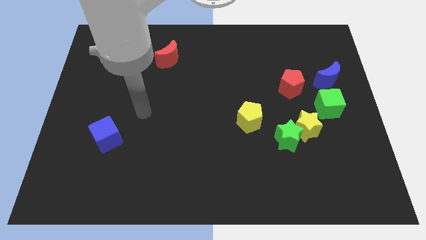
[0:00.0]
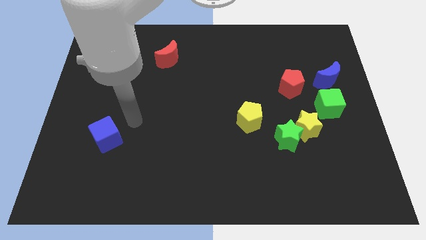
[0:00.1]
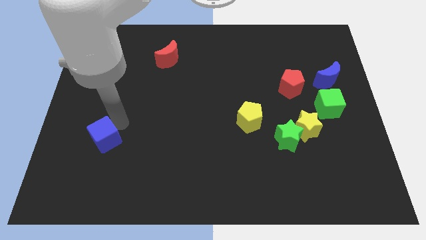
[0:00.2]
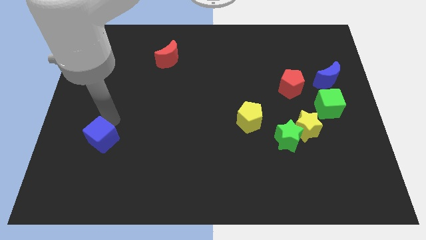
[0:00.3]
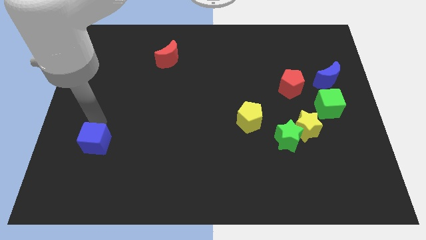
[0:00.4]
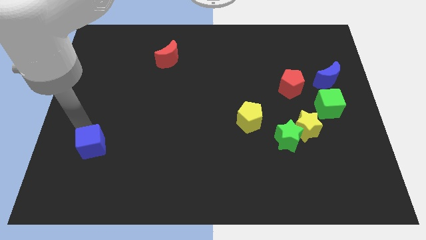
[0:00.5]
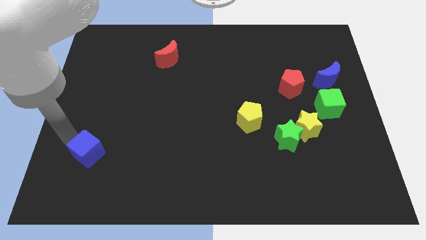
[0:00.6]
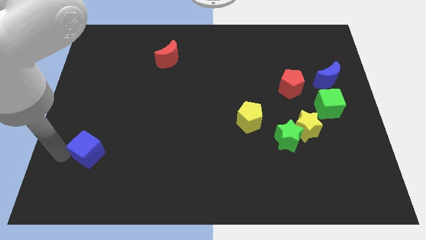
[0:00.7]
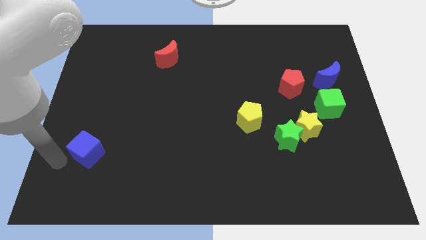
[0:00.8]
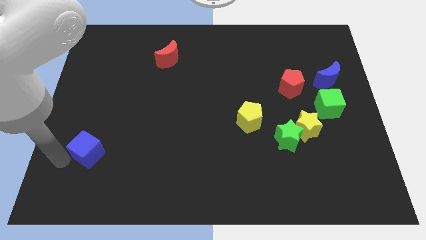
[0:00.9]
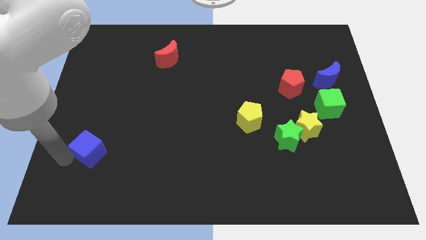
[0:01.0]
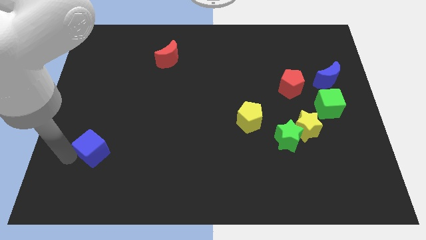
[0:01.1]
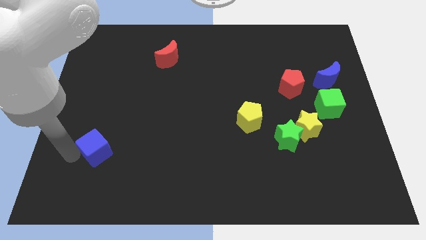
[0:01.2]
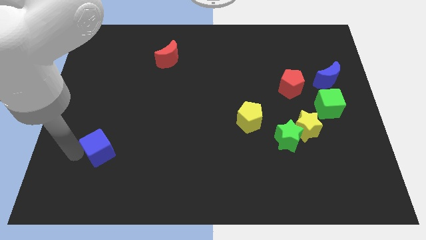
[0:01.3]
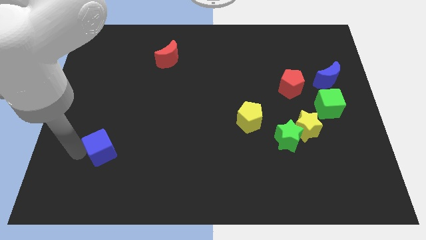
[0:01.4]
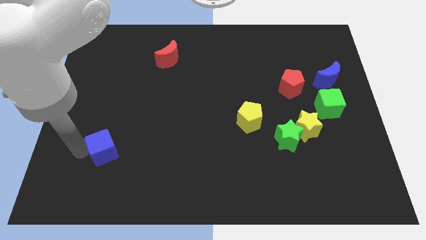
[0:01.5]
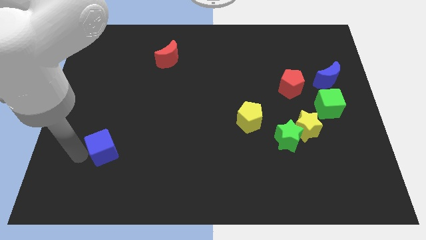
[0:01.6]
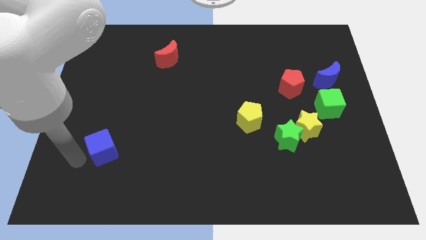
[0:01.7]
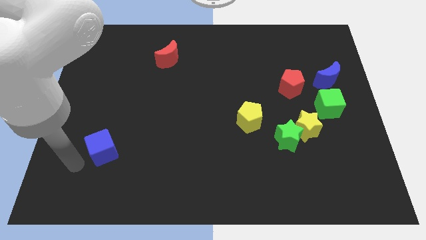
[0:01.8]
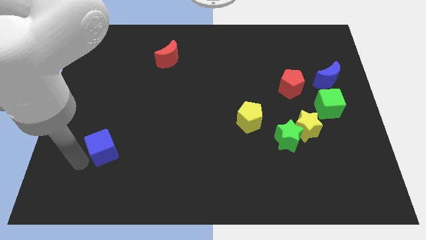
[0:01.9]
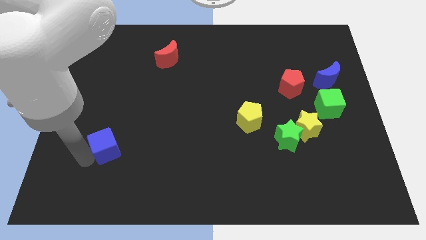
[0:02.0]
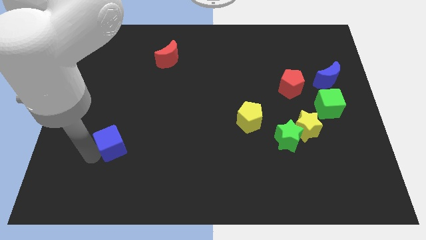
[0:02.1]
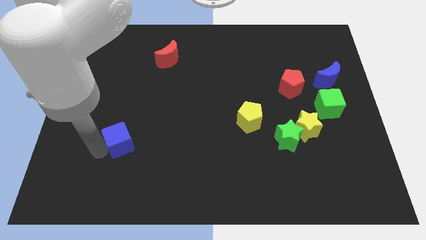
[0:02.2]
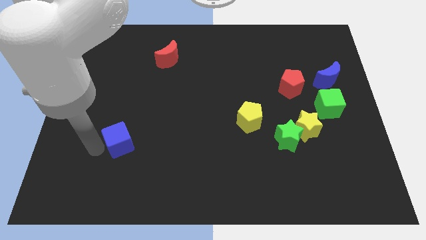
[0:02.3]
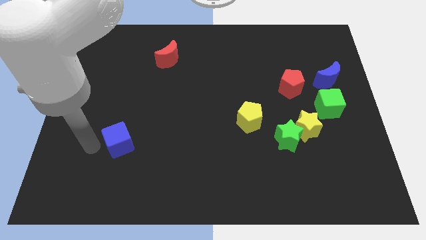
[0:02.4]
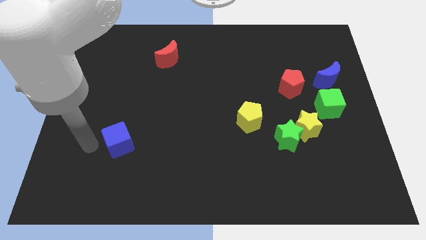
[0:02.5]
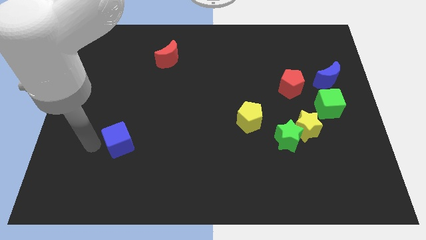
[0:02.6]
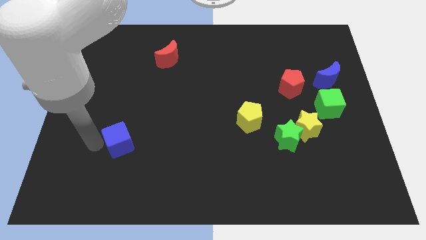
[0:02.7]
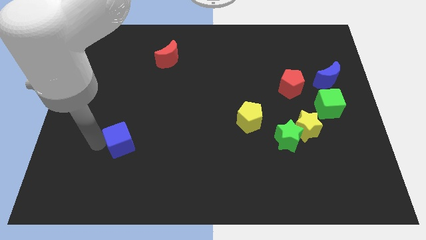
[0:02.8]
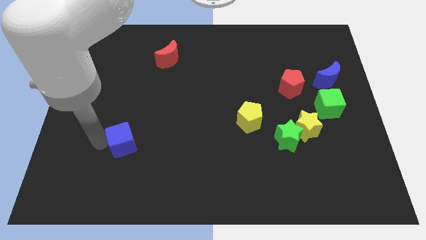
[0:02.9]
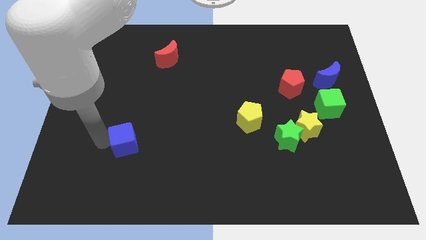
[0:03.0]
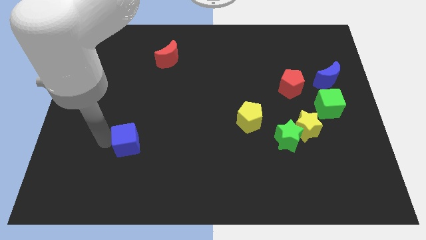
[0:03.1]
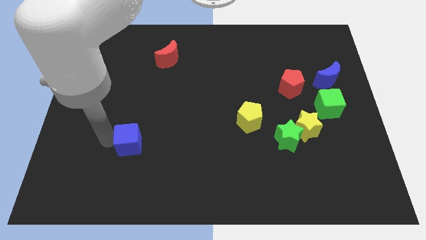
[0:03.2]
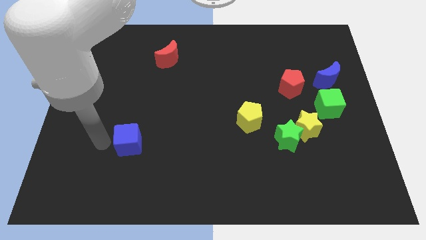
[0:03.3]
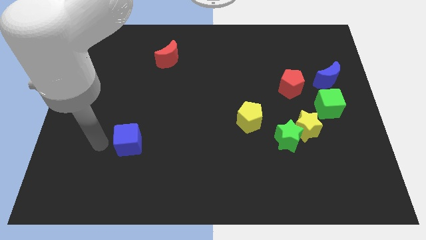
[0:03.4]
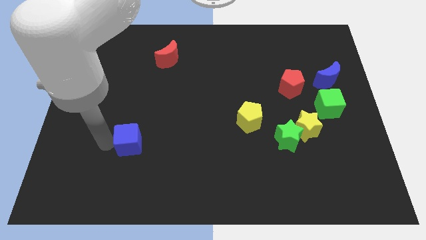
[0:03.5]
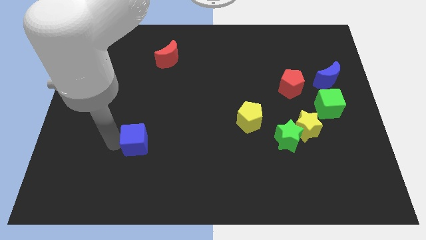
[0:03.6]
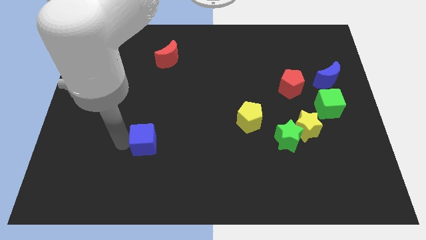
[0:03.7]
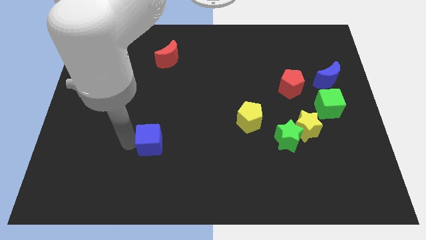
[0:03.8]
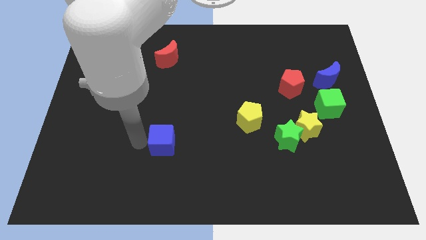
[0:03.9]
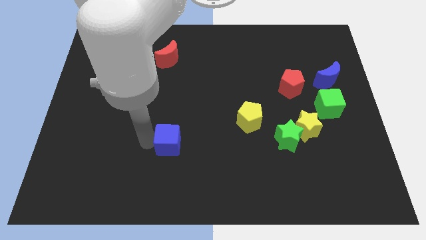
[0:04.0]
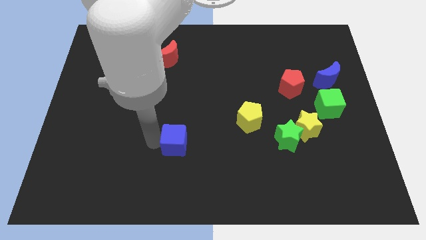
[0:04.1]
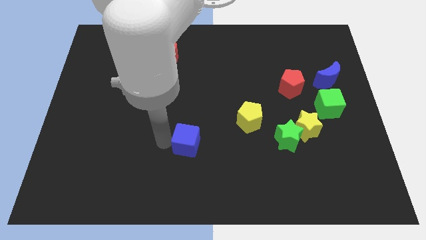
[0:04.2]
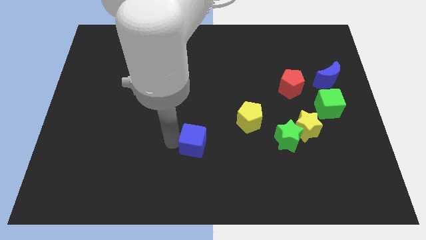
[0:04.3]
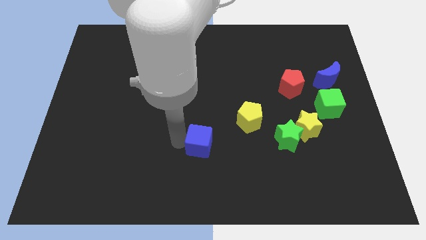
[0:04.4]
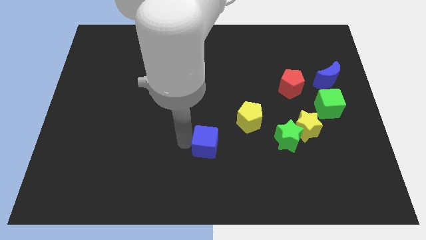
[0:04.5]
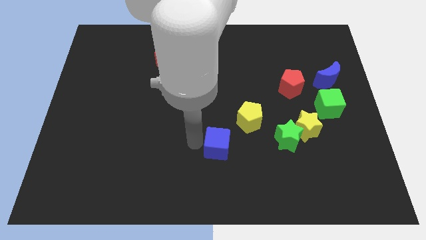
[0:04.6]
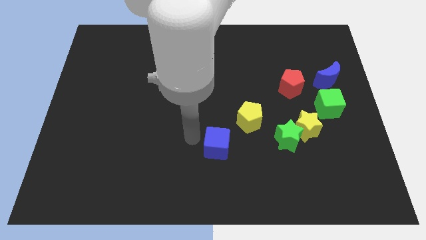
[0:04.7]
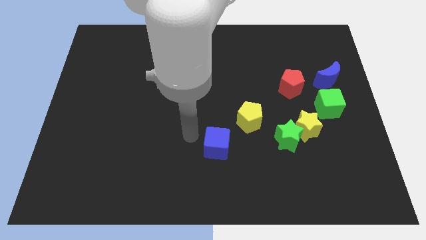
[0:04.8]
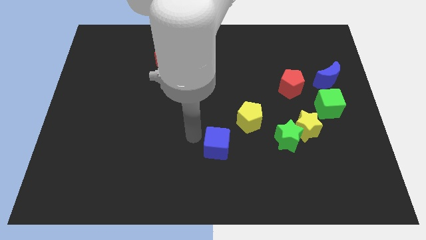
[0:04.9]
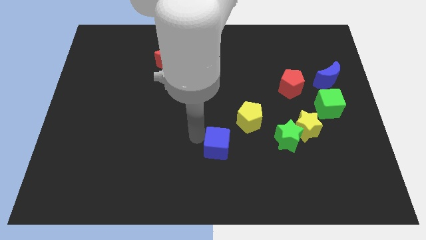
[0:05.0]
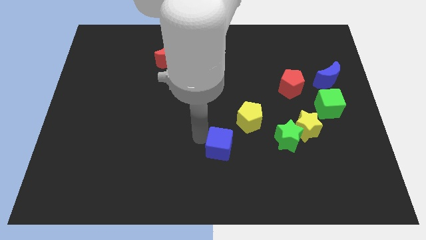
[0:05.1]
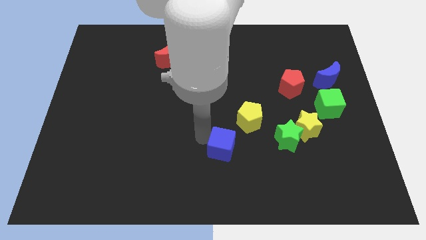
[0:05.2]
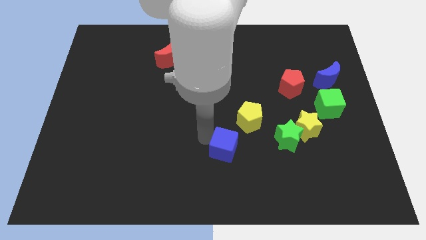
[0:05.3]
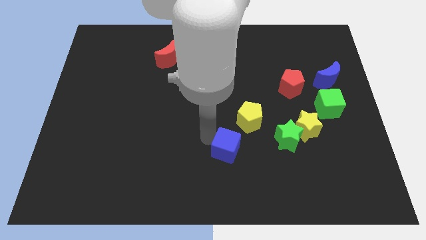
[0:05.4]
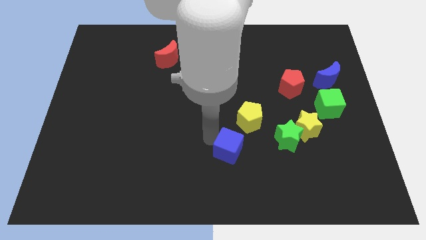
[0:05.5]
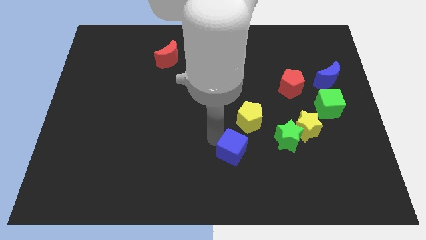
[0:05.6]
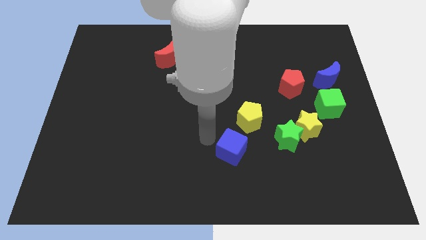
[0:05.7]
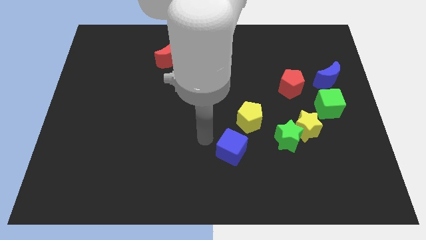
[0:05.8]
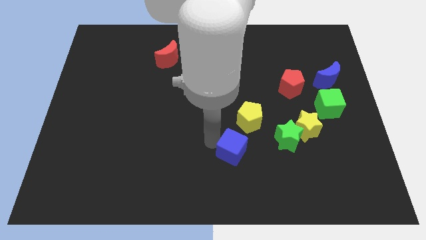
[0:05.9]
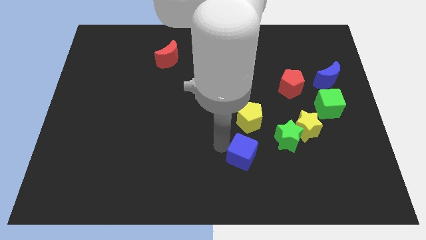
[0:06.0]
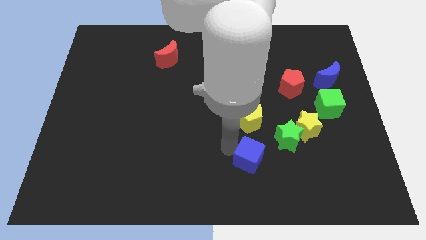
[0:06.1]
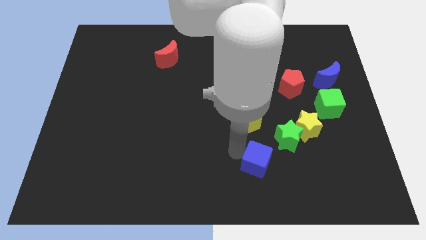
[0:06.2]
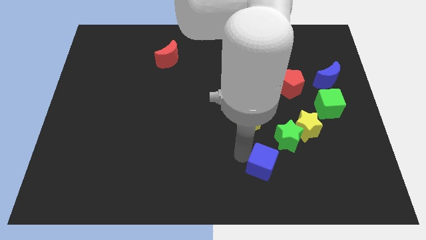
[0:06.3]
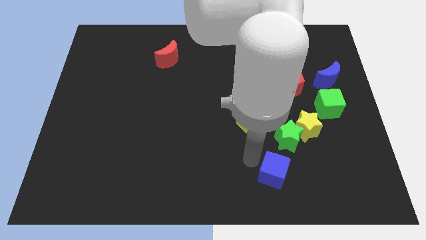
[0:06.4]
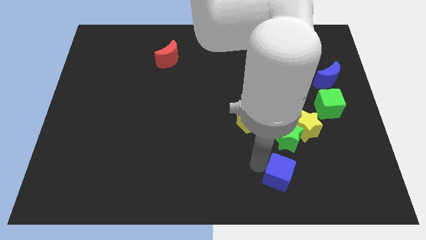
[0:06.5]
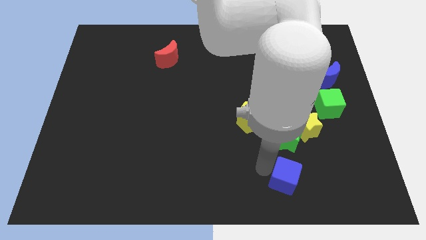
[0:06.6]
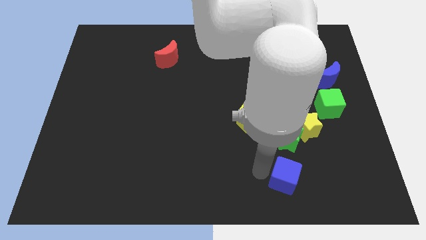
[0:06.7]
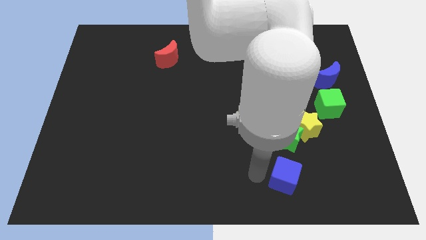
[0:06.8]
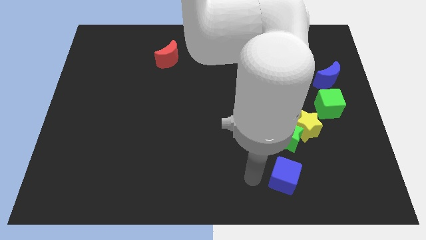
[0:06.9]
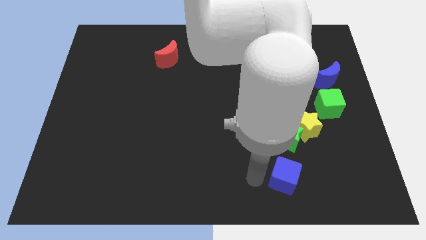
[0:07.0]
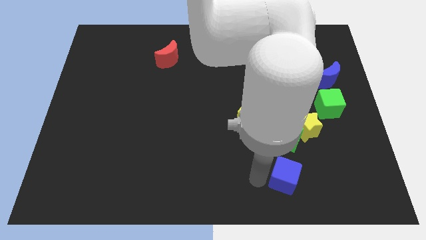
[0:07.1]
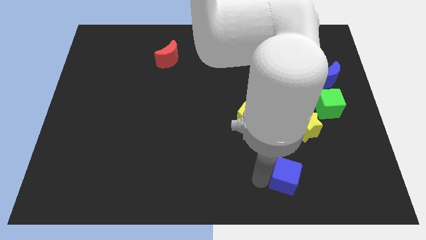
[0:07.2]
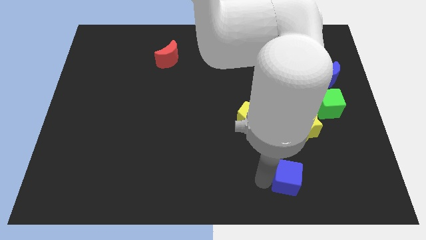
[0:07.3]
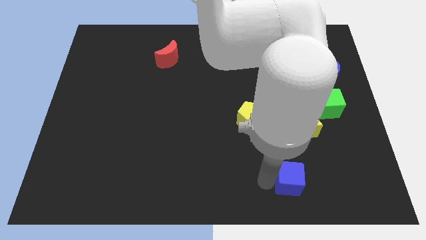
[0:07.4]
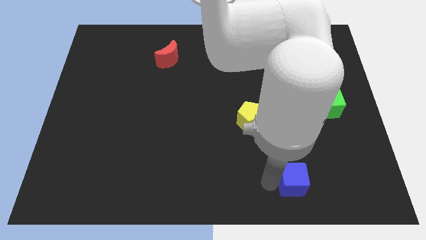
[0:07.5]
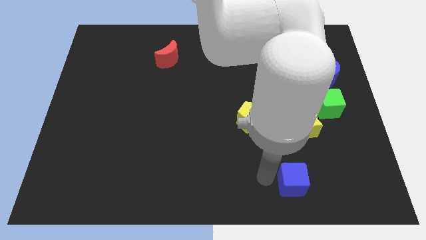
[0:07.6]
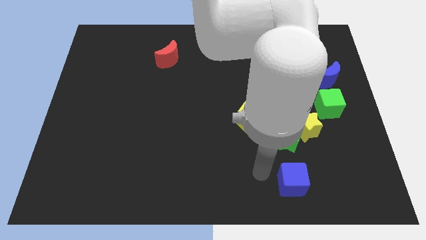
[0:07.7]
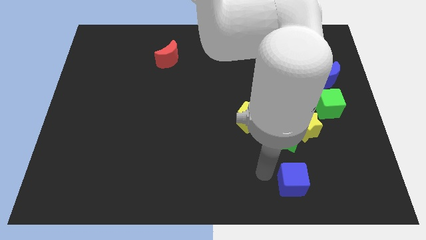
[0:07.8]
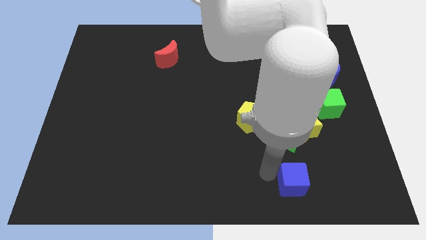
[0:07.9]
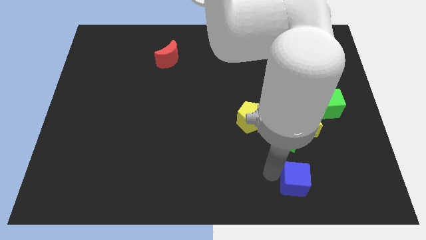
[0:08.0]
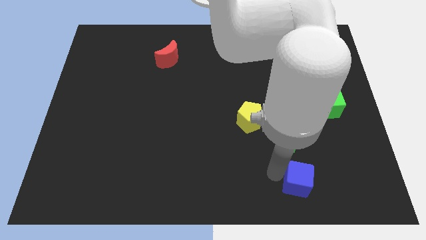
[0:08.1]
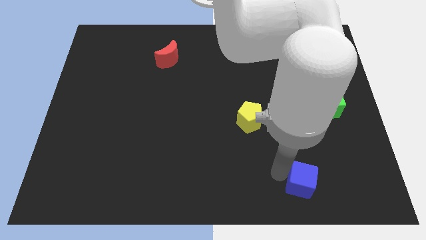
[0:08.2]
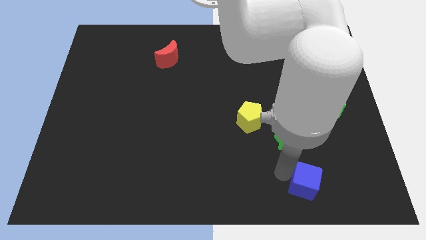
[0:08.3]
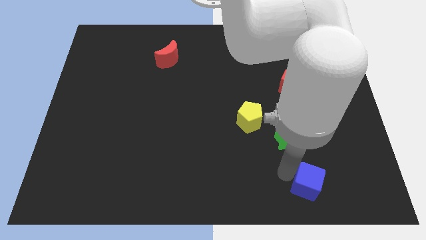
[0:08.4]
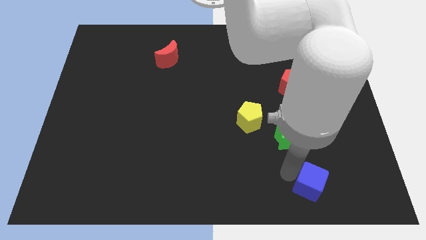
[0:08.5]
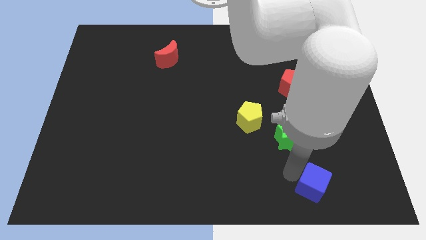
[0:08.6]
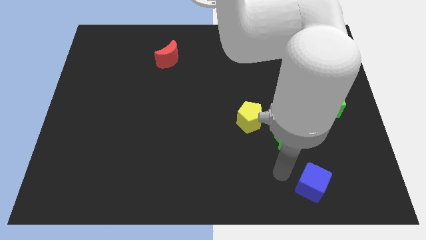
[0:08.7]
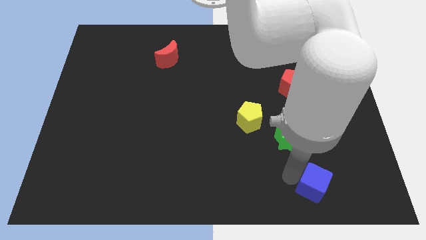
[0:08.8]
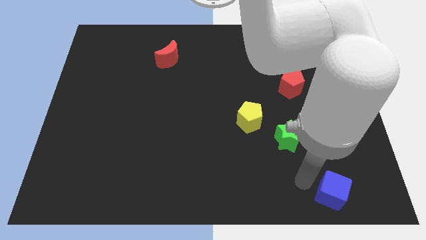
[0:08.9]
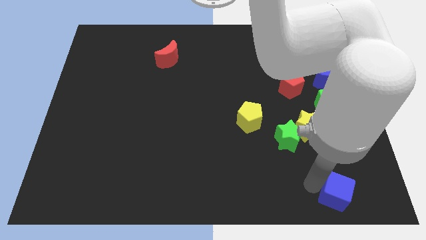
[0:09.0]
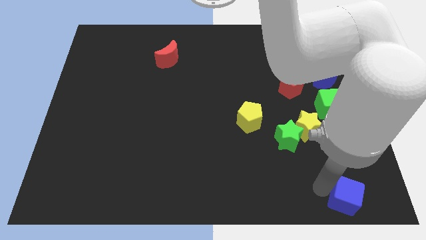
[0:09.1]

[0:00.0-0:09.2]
slide the blue cube to the bottom right corner
